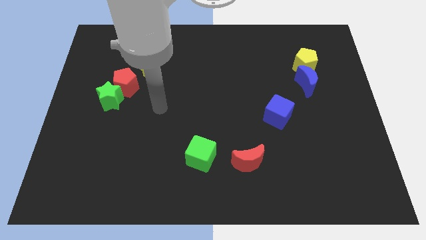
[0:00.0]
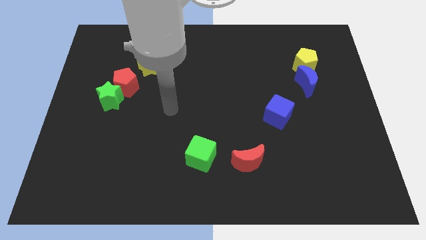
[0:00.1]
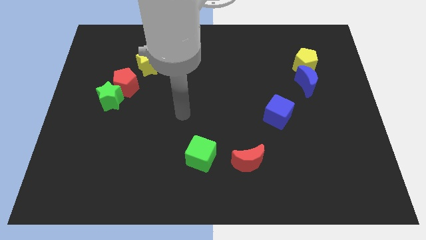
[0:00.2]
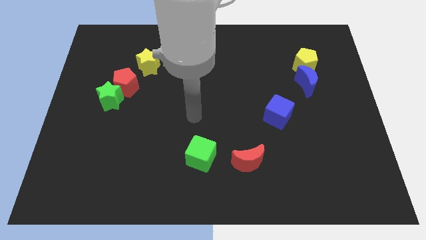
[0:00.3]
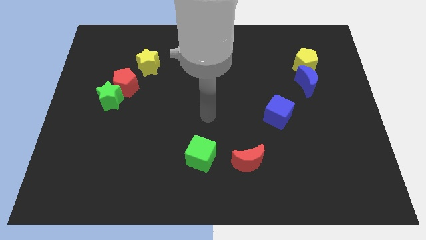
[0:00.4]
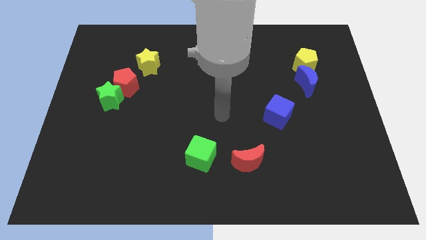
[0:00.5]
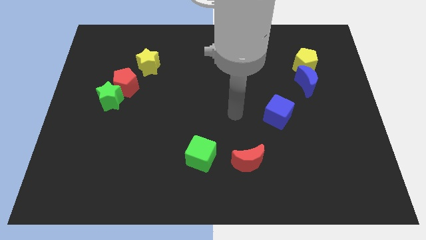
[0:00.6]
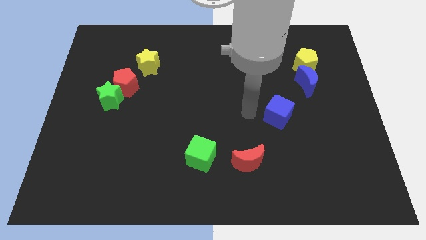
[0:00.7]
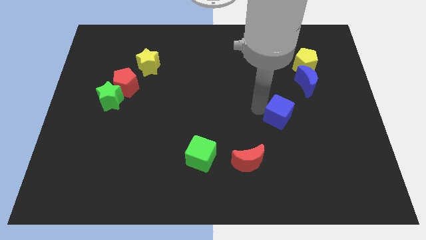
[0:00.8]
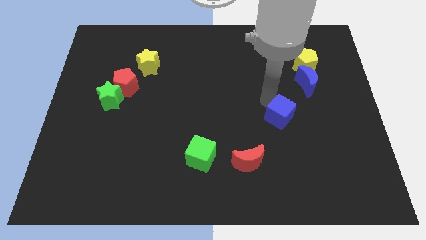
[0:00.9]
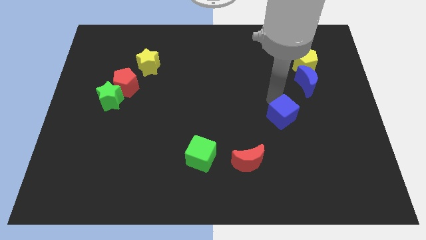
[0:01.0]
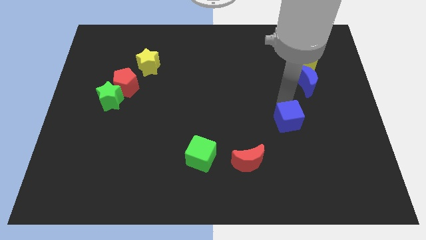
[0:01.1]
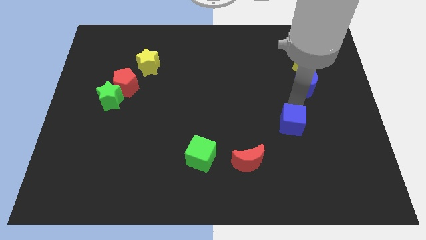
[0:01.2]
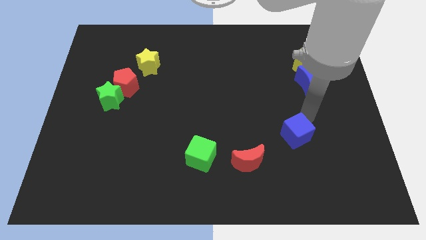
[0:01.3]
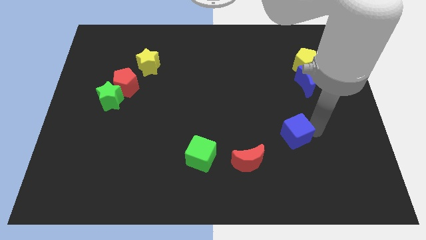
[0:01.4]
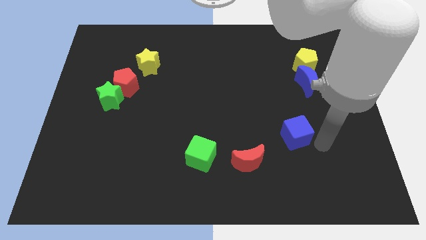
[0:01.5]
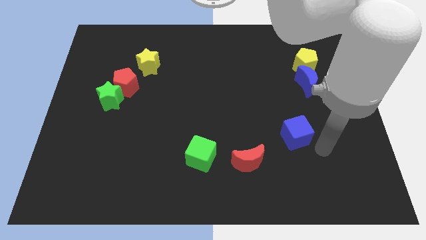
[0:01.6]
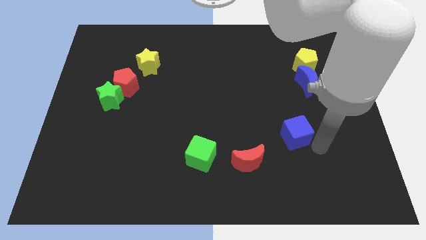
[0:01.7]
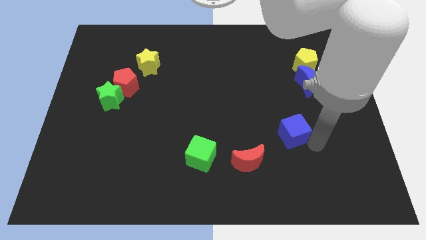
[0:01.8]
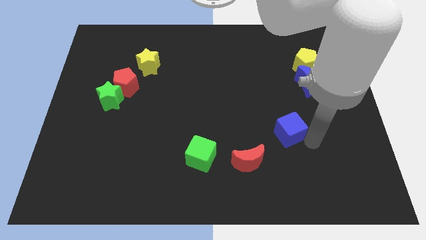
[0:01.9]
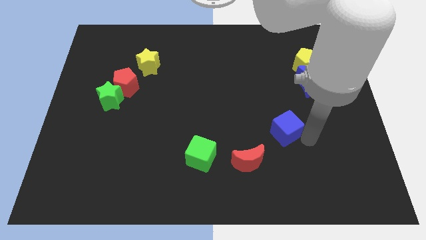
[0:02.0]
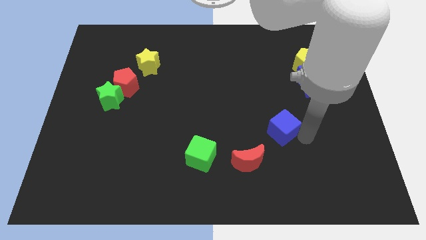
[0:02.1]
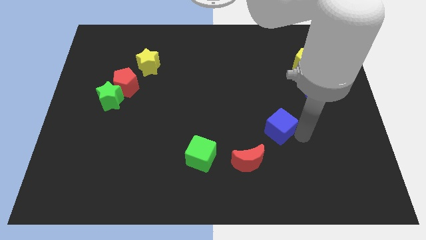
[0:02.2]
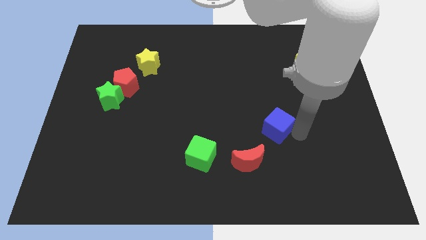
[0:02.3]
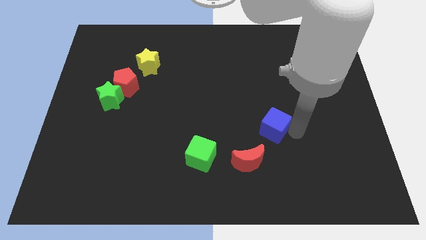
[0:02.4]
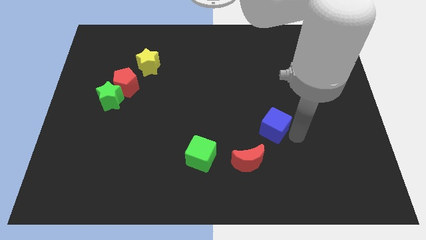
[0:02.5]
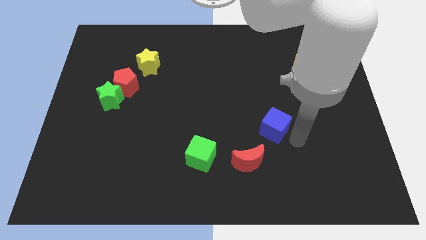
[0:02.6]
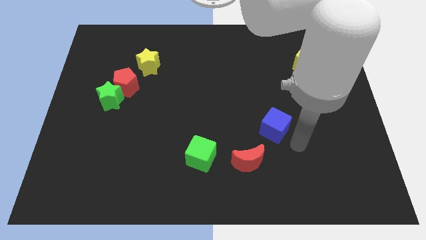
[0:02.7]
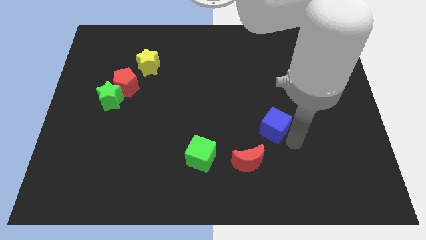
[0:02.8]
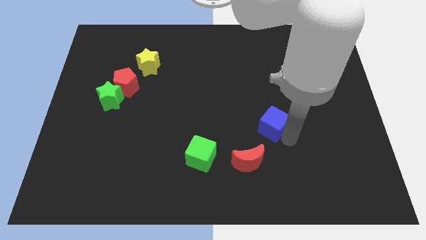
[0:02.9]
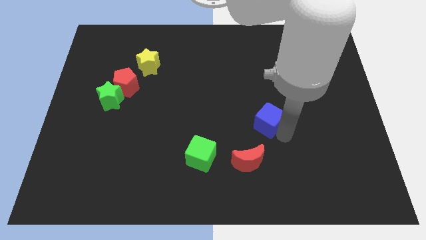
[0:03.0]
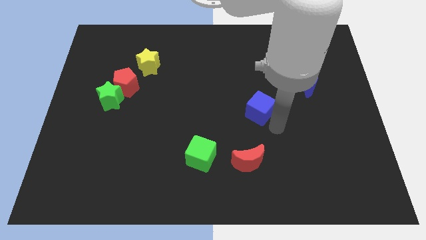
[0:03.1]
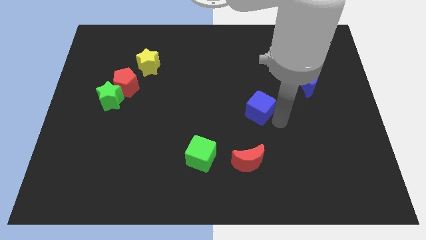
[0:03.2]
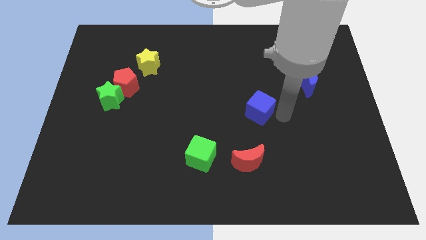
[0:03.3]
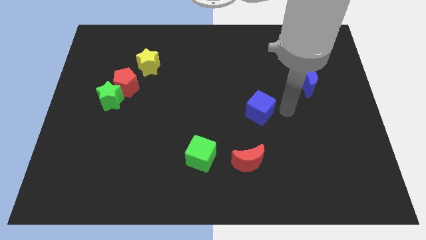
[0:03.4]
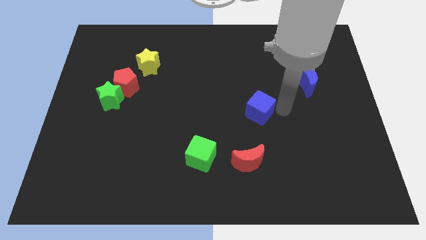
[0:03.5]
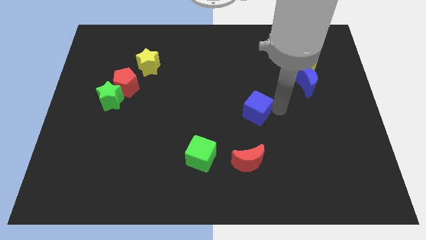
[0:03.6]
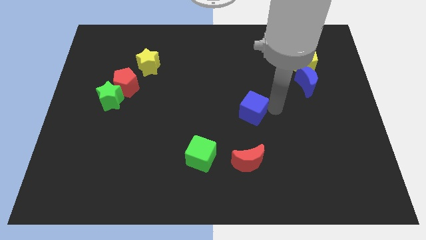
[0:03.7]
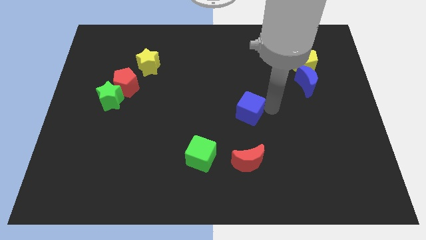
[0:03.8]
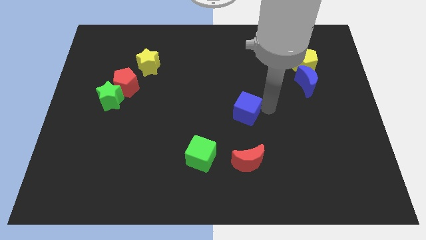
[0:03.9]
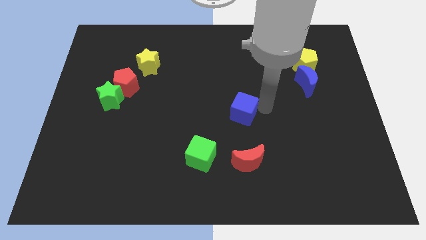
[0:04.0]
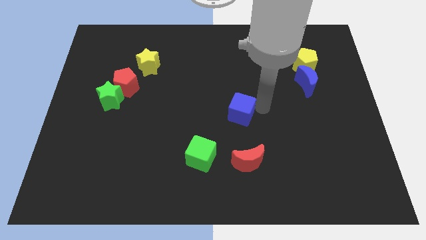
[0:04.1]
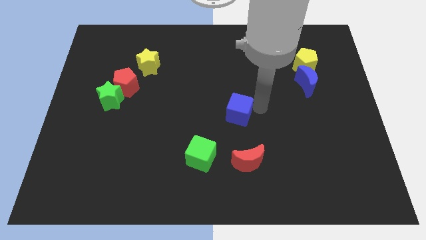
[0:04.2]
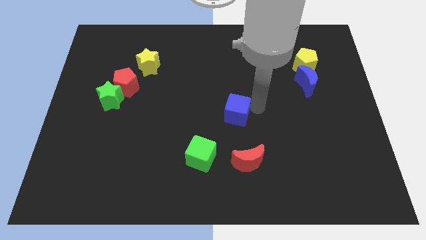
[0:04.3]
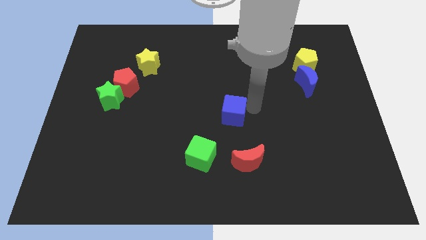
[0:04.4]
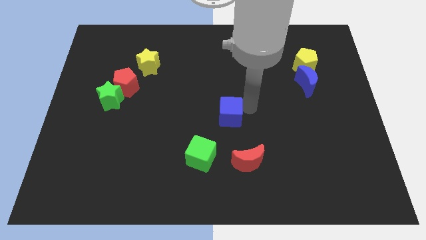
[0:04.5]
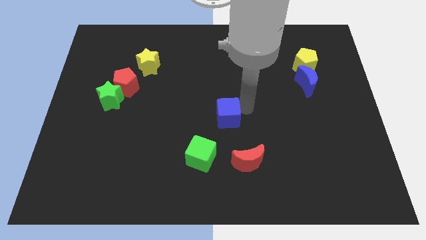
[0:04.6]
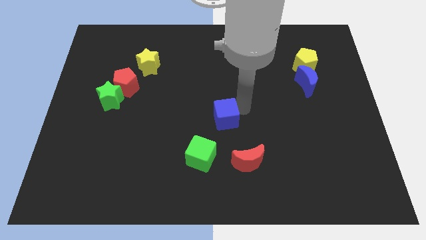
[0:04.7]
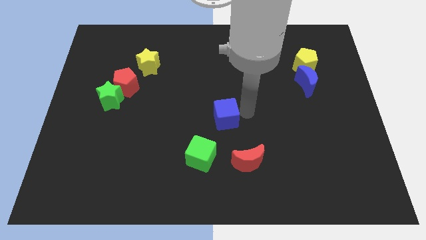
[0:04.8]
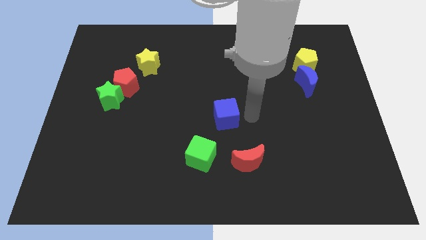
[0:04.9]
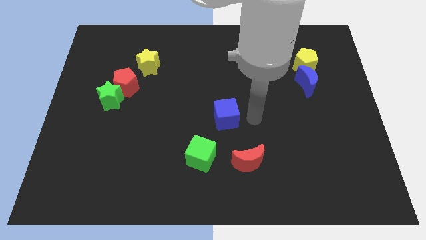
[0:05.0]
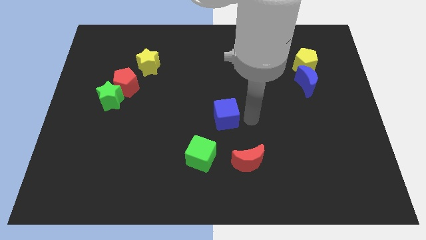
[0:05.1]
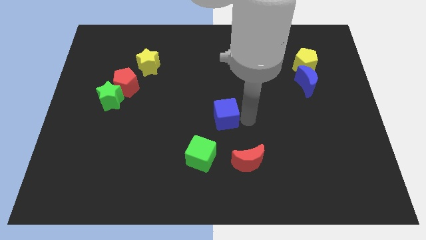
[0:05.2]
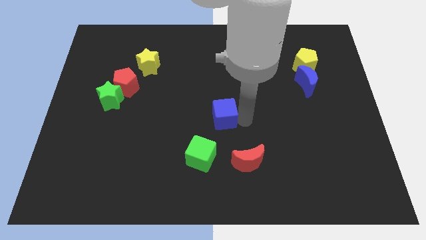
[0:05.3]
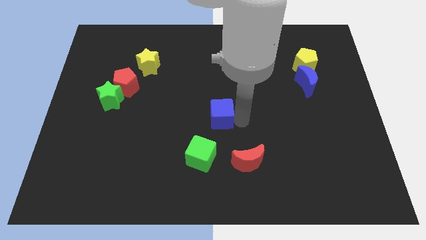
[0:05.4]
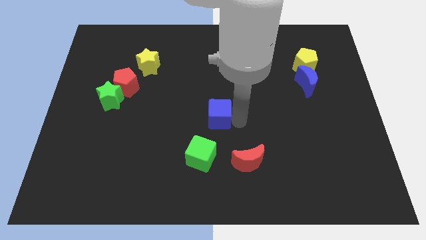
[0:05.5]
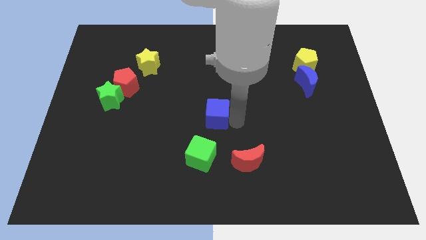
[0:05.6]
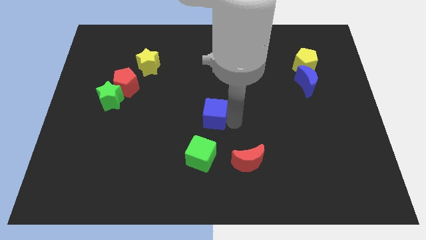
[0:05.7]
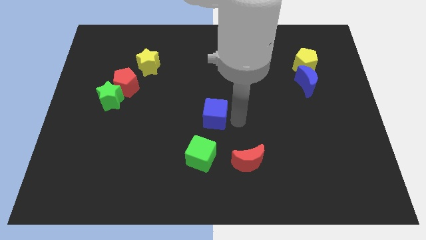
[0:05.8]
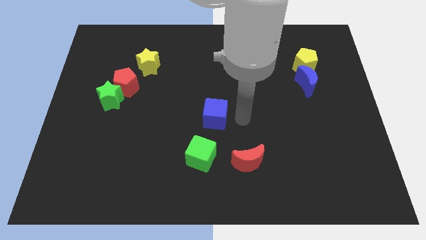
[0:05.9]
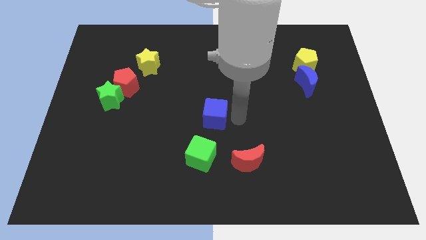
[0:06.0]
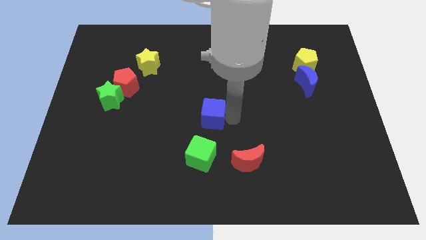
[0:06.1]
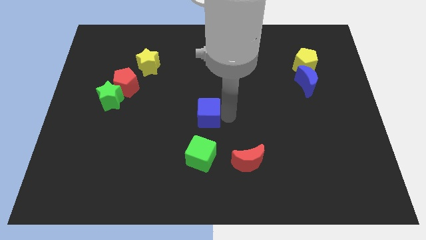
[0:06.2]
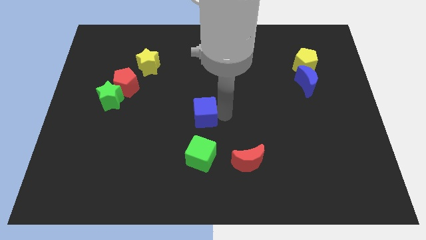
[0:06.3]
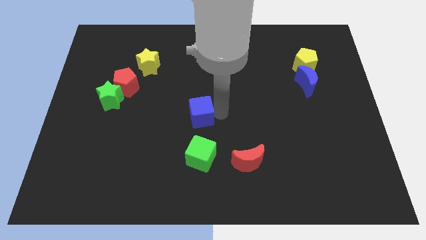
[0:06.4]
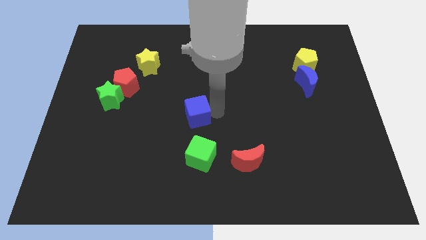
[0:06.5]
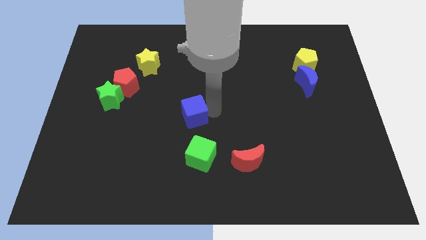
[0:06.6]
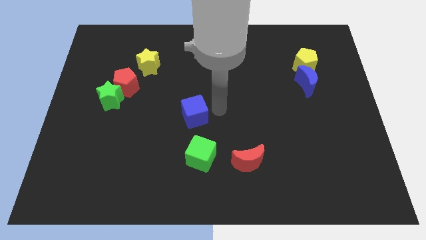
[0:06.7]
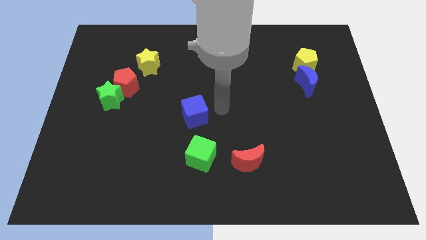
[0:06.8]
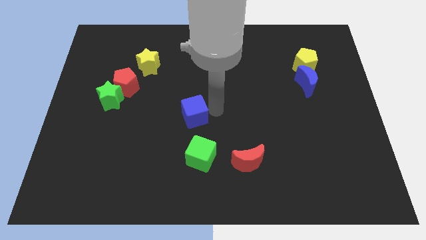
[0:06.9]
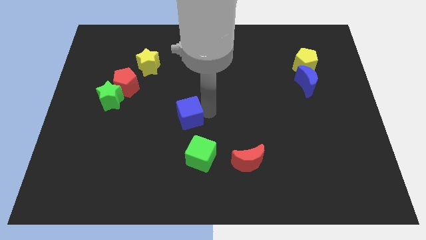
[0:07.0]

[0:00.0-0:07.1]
push the blue cube to the left

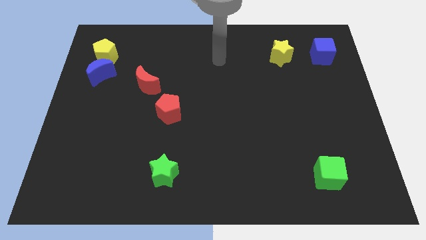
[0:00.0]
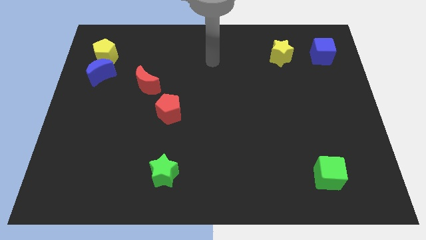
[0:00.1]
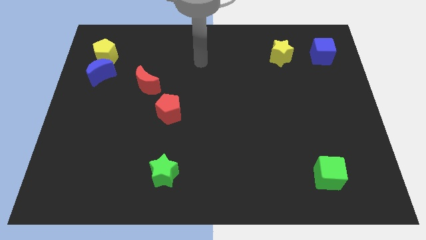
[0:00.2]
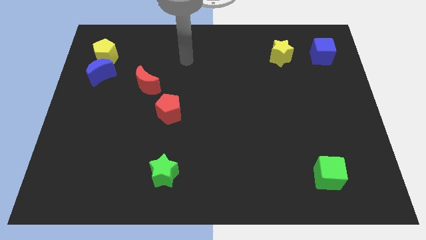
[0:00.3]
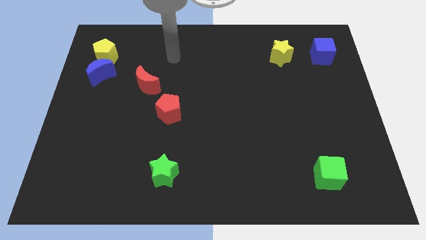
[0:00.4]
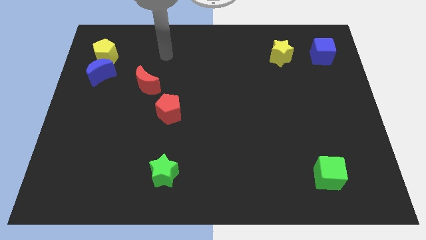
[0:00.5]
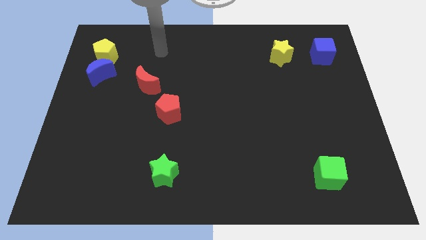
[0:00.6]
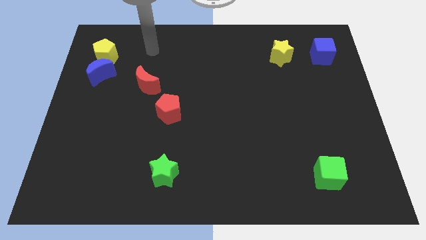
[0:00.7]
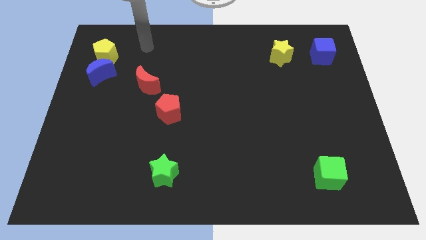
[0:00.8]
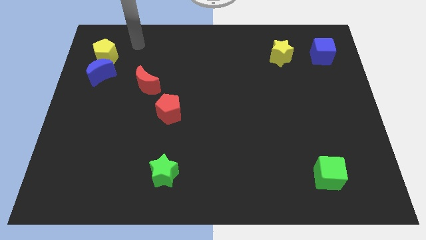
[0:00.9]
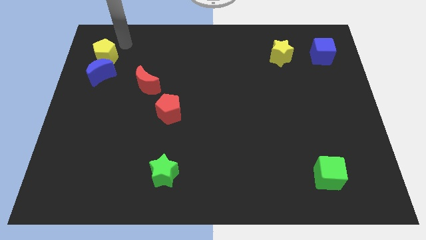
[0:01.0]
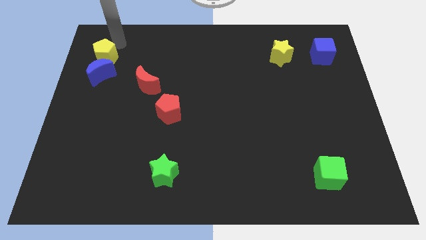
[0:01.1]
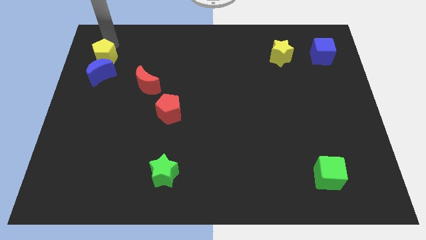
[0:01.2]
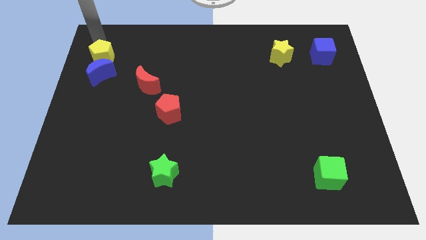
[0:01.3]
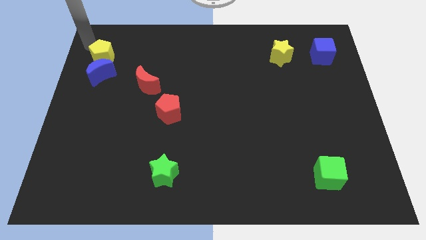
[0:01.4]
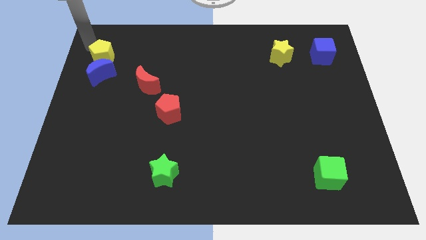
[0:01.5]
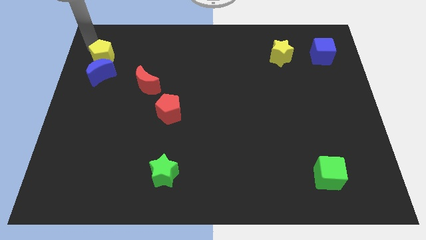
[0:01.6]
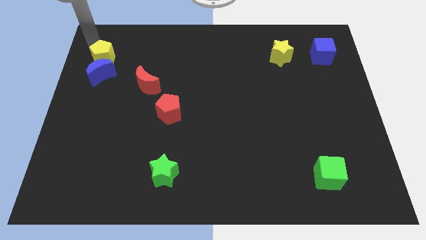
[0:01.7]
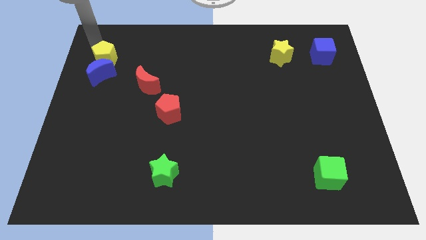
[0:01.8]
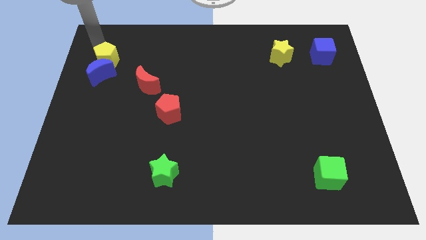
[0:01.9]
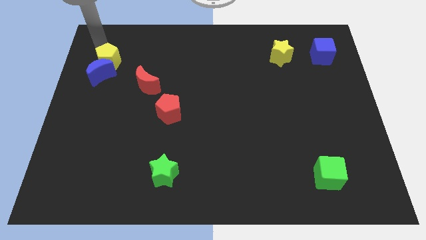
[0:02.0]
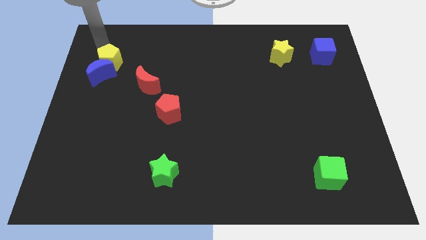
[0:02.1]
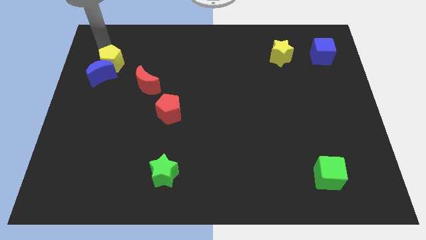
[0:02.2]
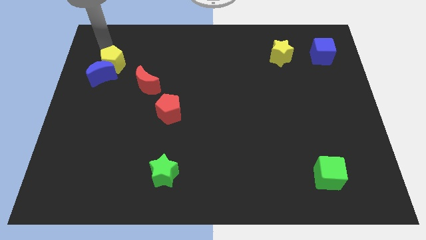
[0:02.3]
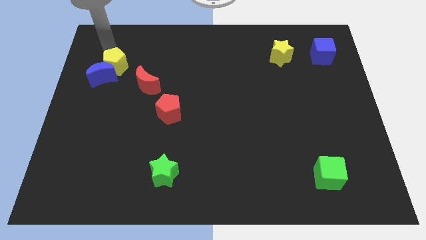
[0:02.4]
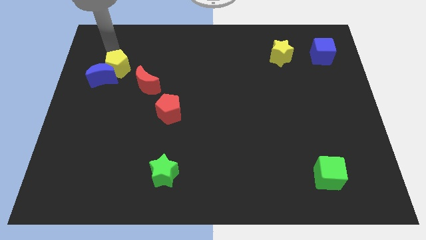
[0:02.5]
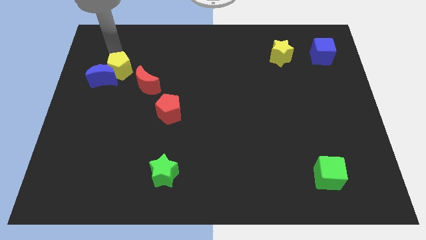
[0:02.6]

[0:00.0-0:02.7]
move the yellow pentagon a bit down and then to the right
